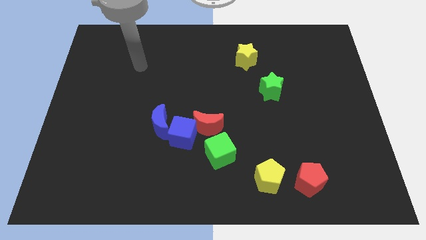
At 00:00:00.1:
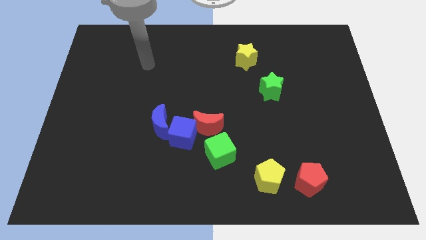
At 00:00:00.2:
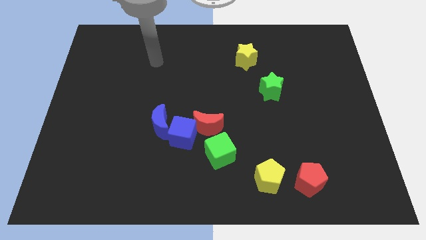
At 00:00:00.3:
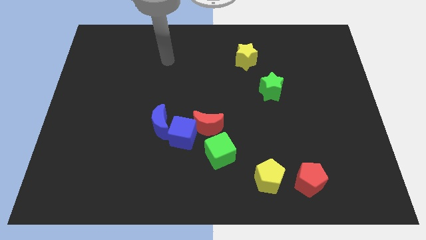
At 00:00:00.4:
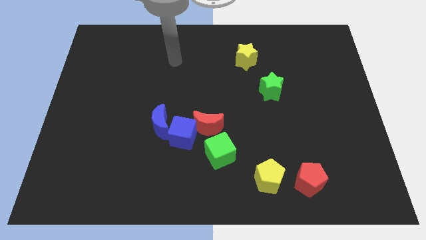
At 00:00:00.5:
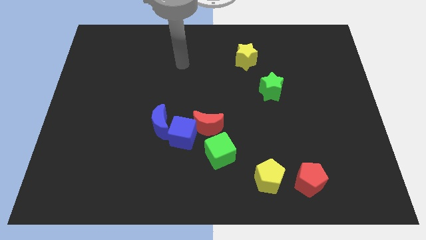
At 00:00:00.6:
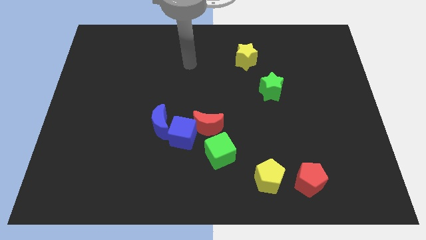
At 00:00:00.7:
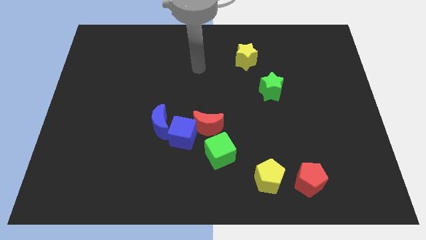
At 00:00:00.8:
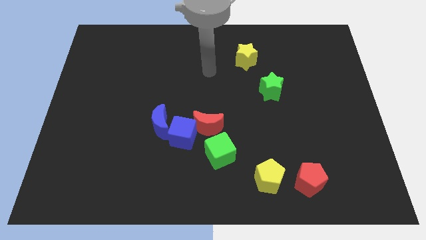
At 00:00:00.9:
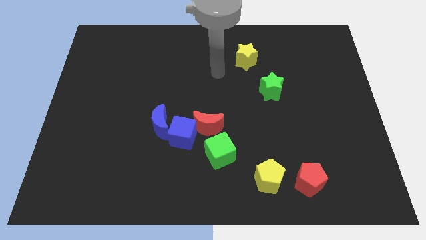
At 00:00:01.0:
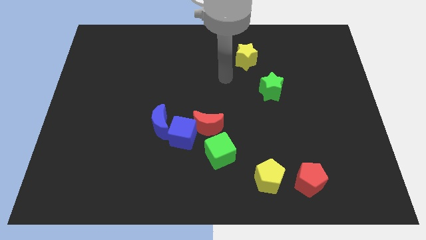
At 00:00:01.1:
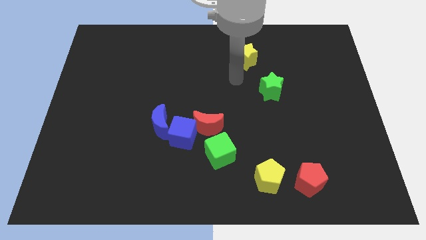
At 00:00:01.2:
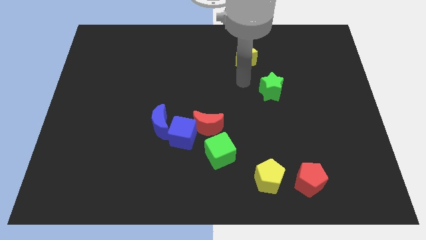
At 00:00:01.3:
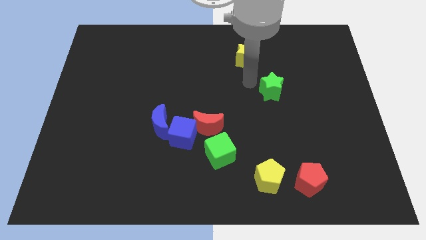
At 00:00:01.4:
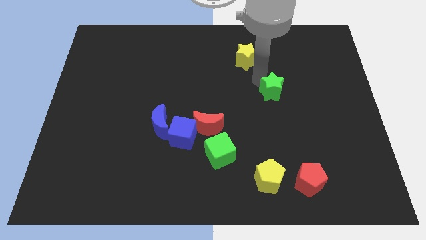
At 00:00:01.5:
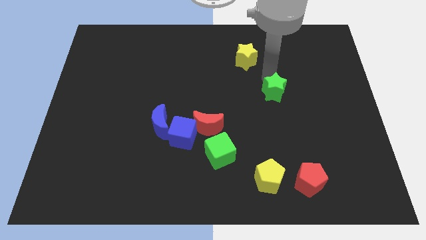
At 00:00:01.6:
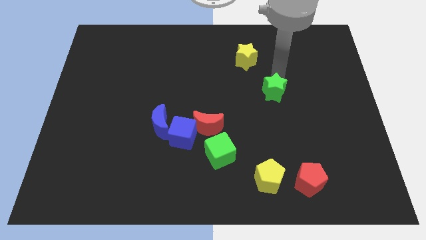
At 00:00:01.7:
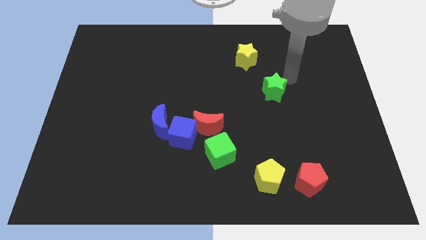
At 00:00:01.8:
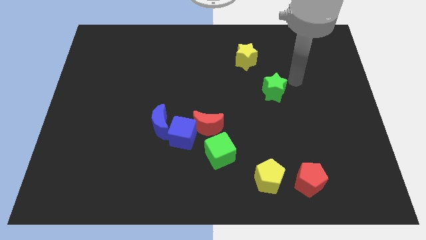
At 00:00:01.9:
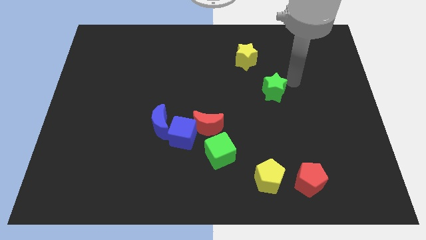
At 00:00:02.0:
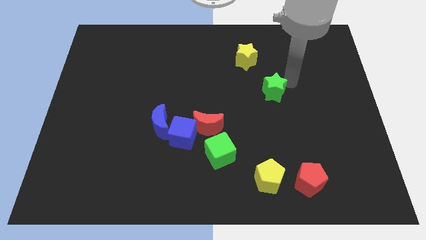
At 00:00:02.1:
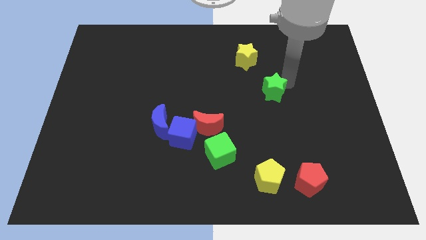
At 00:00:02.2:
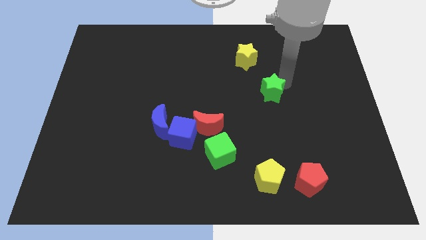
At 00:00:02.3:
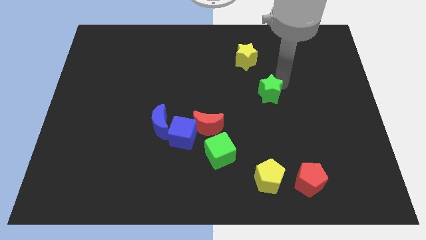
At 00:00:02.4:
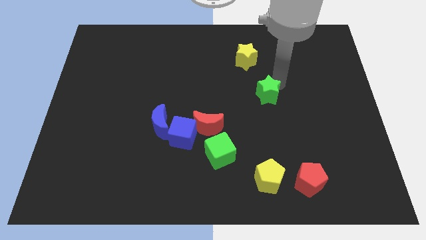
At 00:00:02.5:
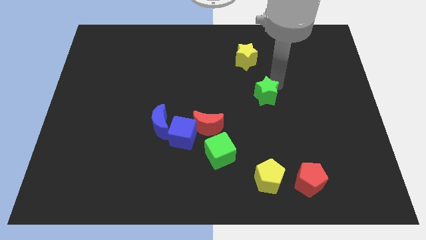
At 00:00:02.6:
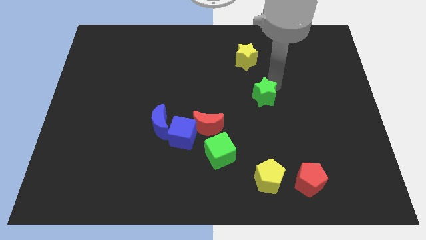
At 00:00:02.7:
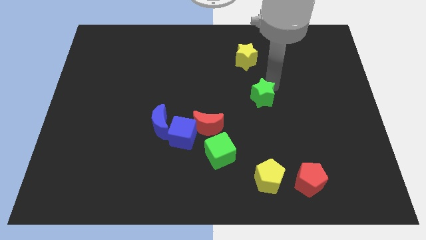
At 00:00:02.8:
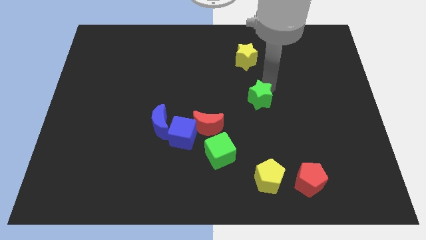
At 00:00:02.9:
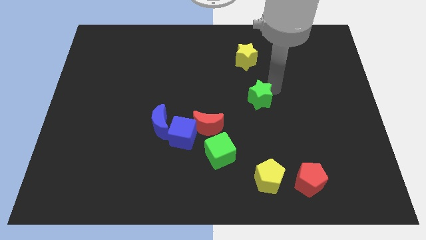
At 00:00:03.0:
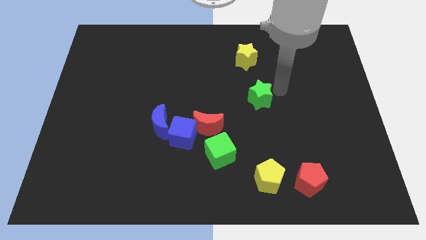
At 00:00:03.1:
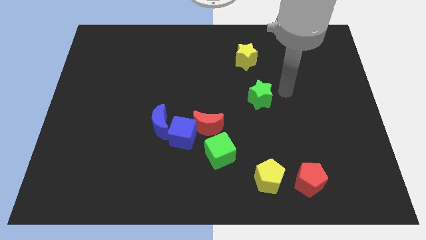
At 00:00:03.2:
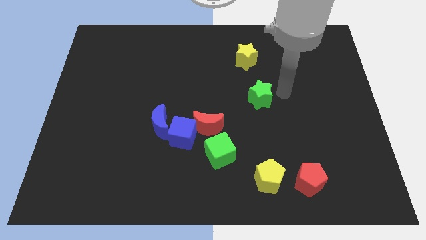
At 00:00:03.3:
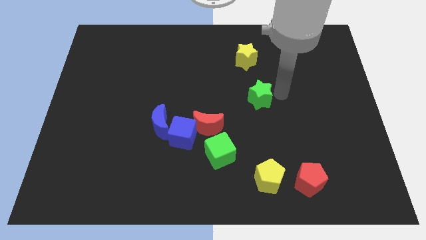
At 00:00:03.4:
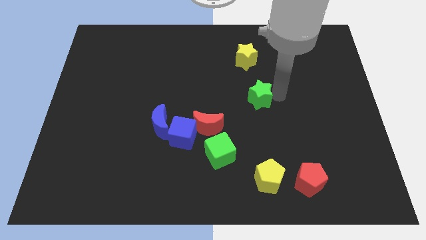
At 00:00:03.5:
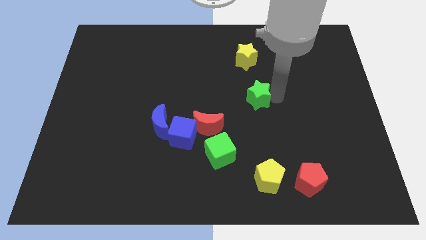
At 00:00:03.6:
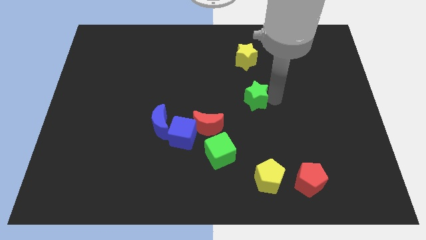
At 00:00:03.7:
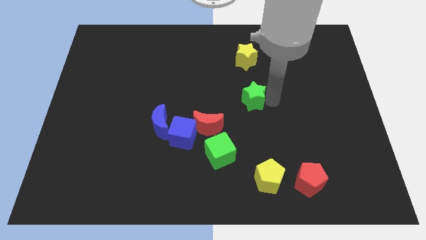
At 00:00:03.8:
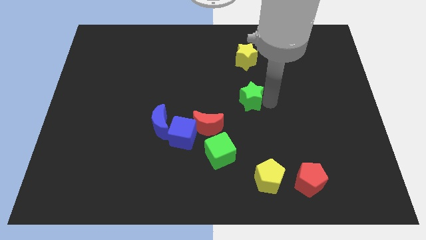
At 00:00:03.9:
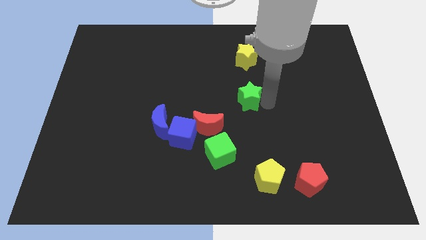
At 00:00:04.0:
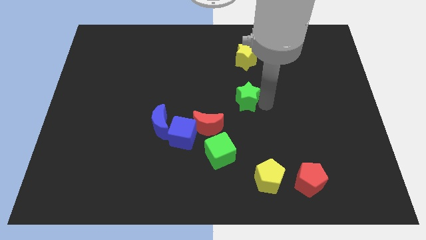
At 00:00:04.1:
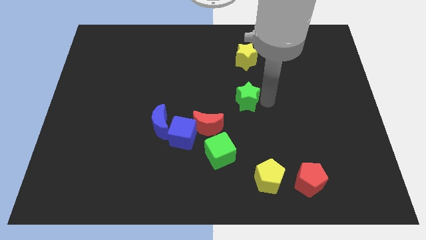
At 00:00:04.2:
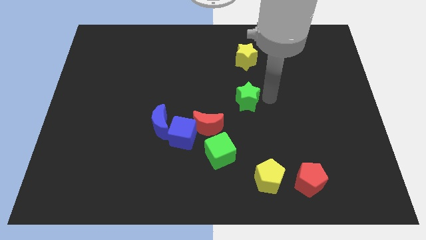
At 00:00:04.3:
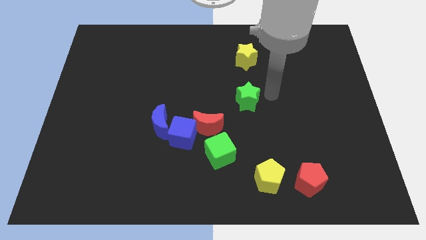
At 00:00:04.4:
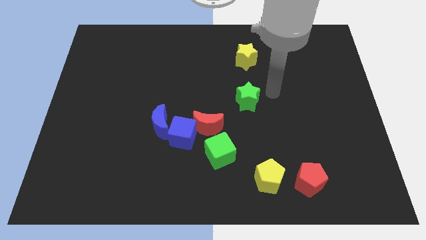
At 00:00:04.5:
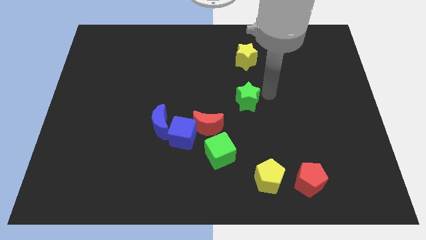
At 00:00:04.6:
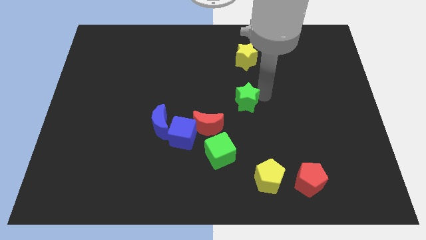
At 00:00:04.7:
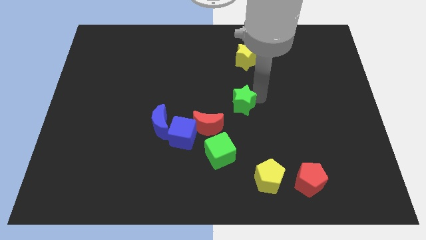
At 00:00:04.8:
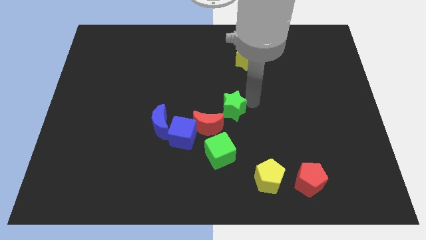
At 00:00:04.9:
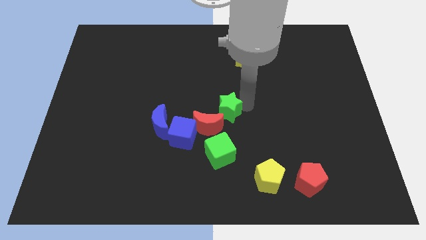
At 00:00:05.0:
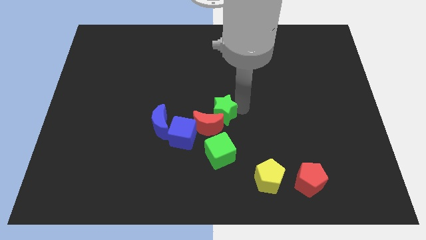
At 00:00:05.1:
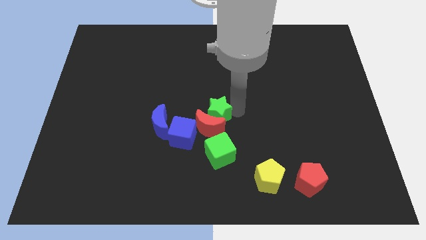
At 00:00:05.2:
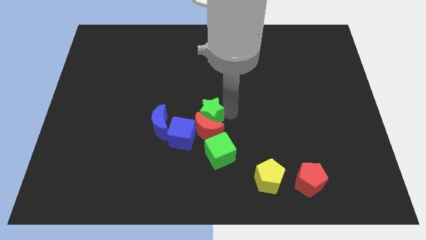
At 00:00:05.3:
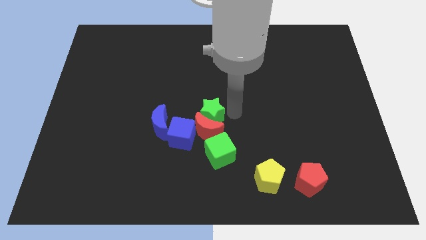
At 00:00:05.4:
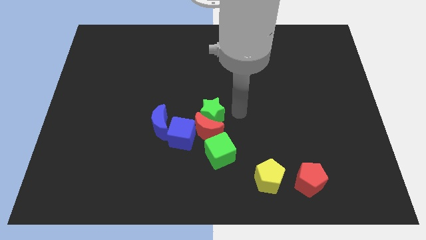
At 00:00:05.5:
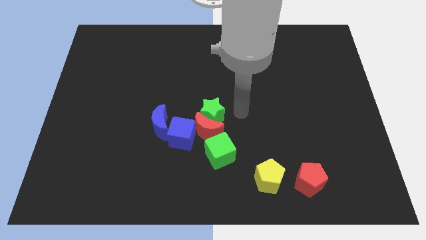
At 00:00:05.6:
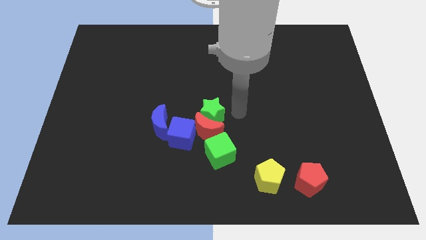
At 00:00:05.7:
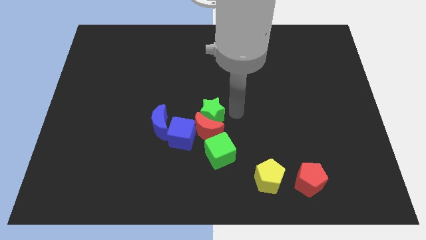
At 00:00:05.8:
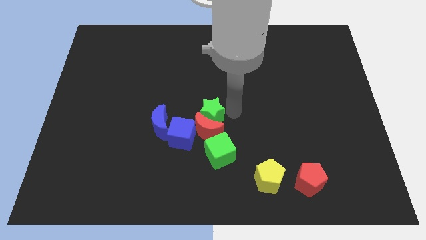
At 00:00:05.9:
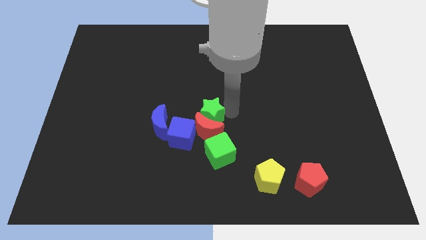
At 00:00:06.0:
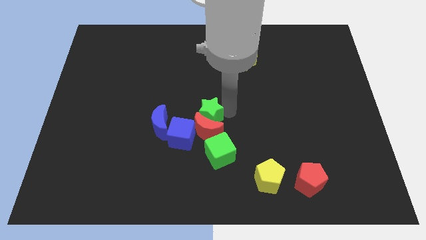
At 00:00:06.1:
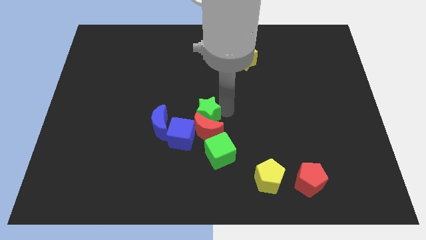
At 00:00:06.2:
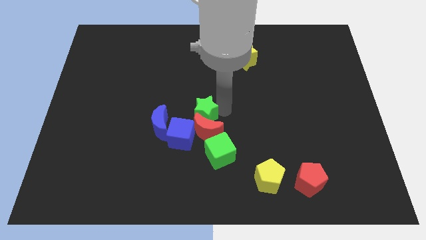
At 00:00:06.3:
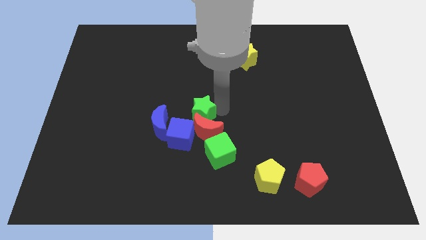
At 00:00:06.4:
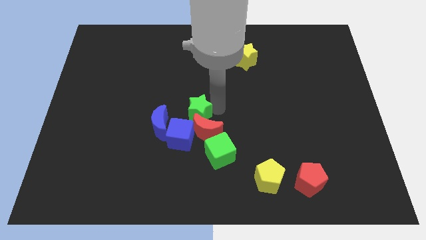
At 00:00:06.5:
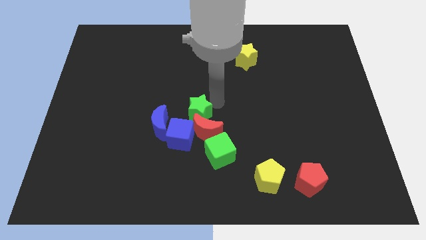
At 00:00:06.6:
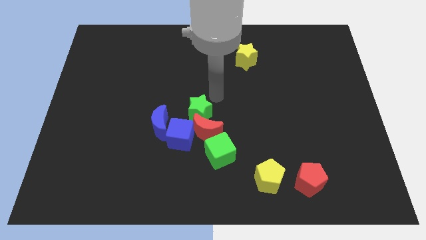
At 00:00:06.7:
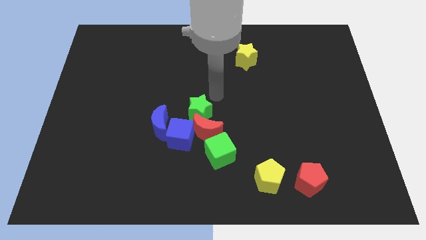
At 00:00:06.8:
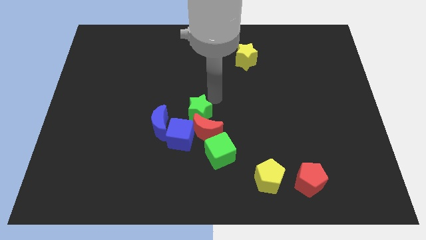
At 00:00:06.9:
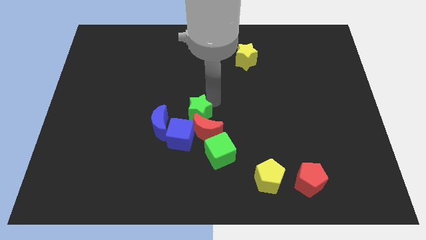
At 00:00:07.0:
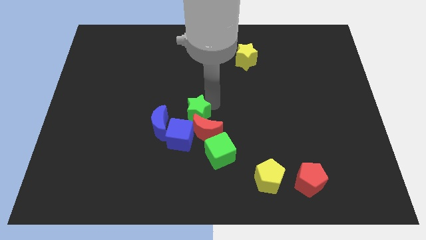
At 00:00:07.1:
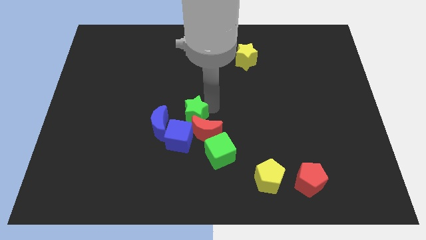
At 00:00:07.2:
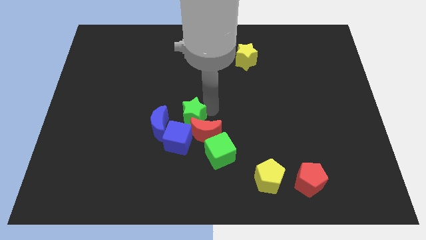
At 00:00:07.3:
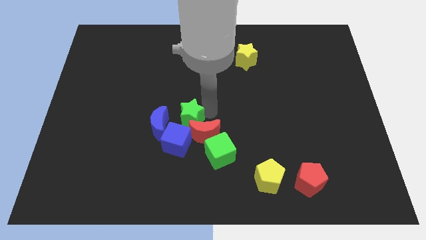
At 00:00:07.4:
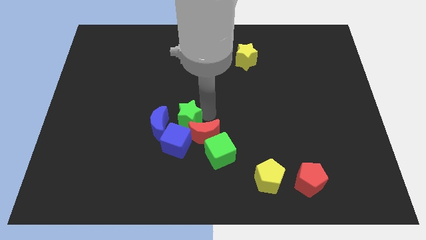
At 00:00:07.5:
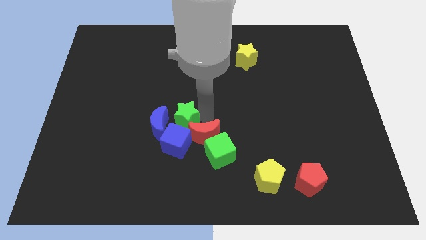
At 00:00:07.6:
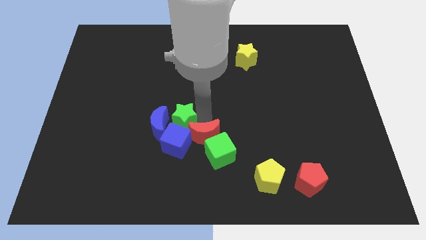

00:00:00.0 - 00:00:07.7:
push the green star to the blue cube

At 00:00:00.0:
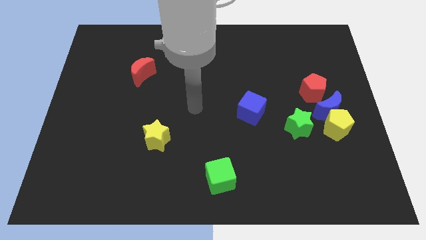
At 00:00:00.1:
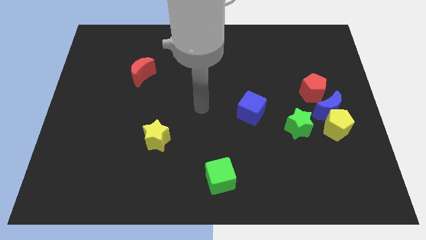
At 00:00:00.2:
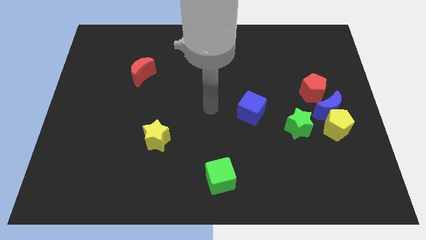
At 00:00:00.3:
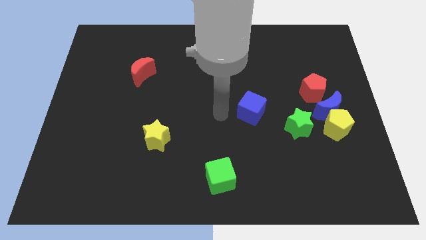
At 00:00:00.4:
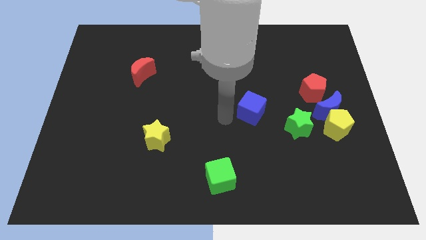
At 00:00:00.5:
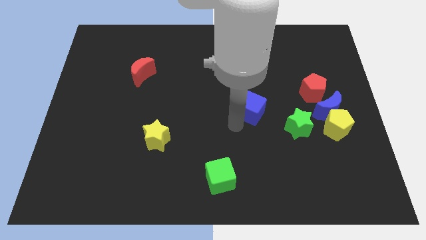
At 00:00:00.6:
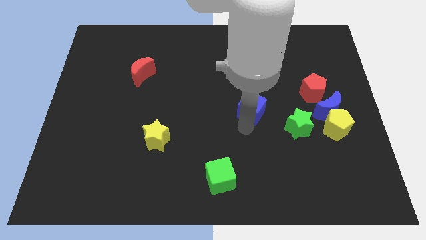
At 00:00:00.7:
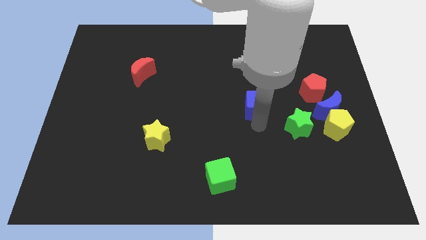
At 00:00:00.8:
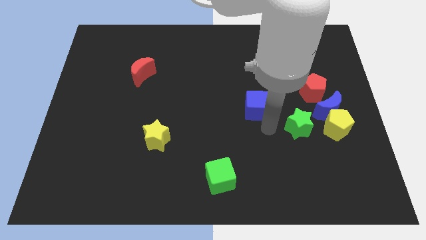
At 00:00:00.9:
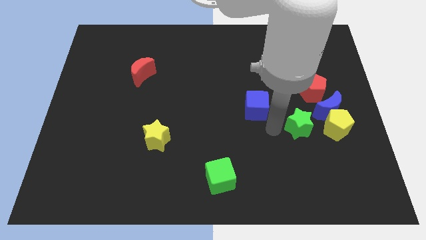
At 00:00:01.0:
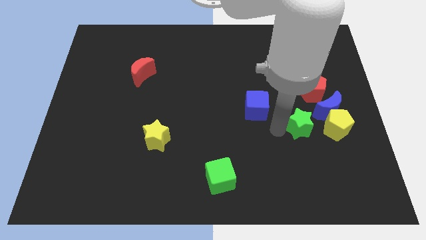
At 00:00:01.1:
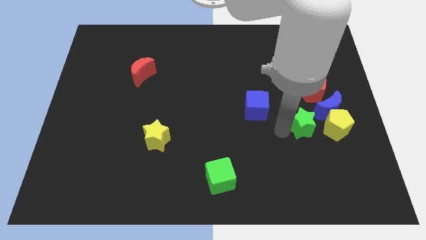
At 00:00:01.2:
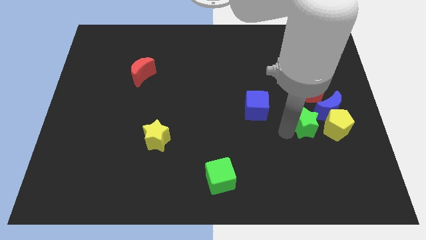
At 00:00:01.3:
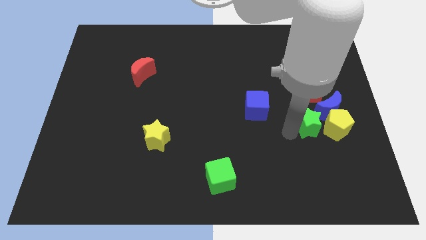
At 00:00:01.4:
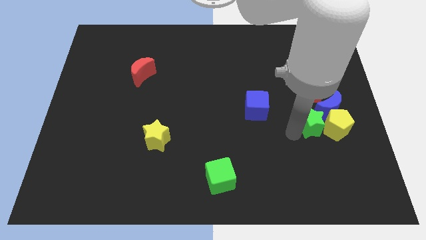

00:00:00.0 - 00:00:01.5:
slide the green star towards the yellow pentagon
